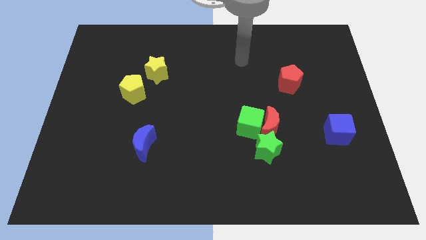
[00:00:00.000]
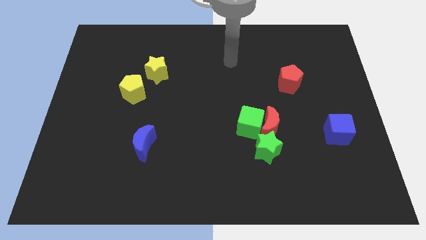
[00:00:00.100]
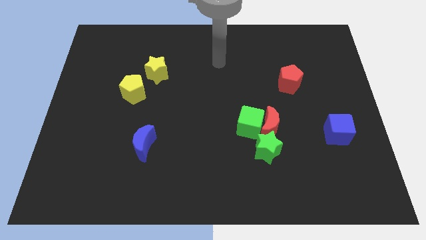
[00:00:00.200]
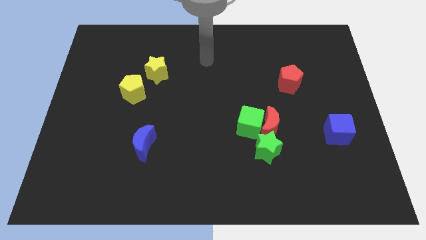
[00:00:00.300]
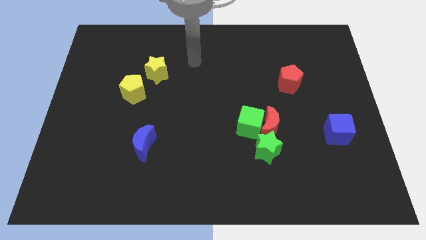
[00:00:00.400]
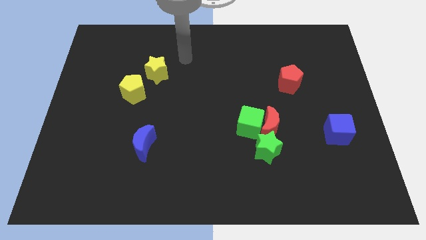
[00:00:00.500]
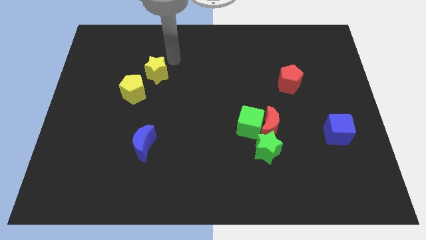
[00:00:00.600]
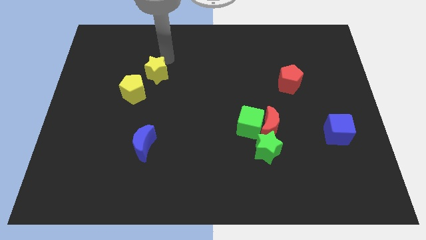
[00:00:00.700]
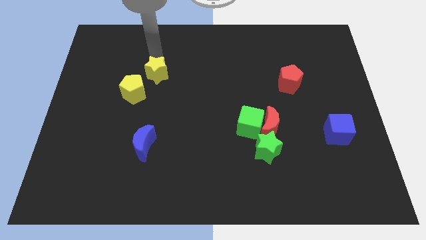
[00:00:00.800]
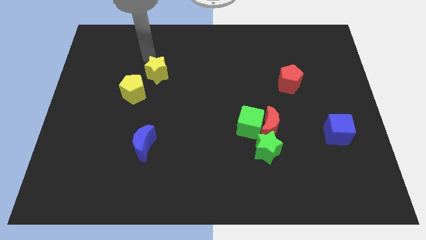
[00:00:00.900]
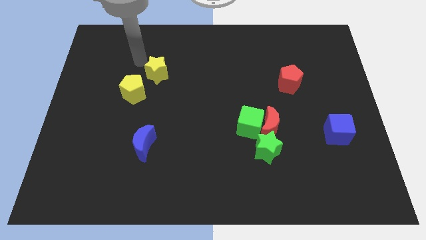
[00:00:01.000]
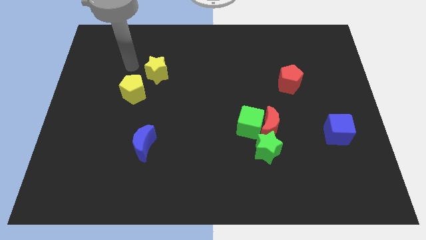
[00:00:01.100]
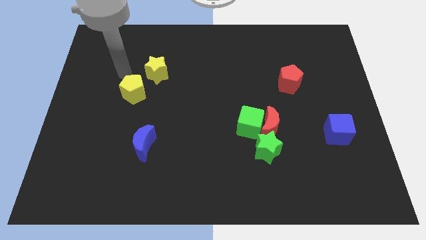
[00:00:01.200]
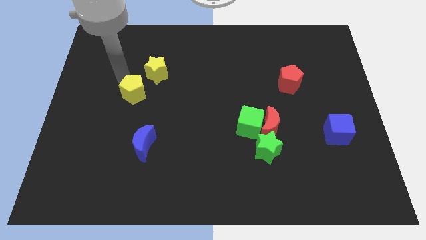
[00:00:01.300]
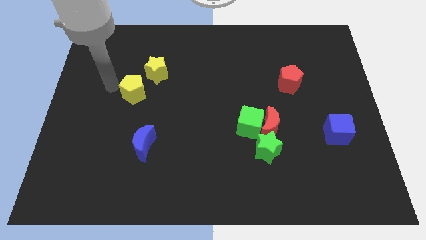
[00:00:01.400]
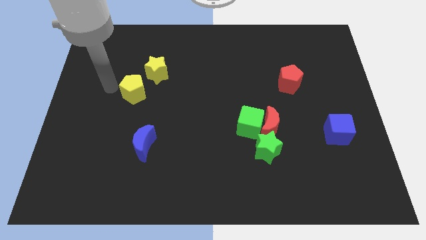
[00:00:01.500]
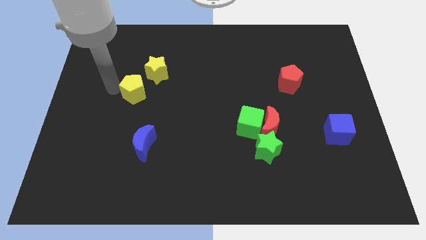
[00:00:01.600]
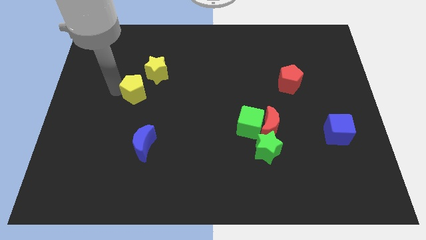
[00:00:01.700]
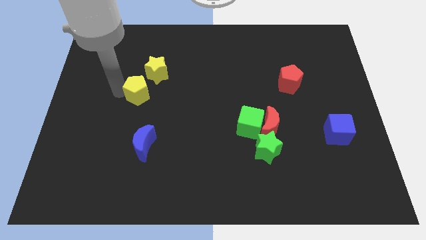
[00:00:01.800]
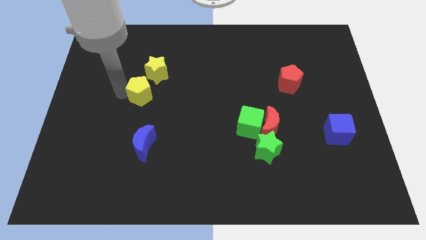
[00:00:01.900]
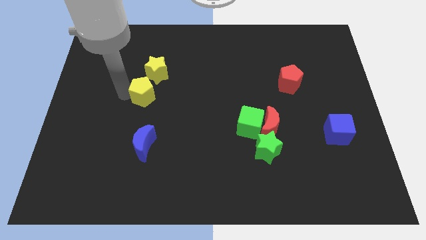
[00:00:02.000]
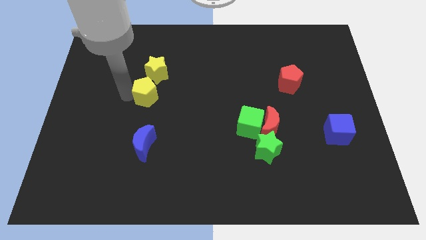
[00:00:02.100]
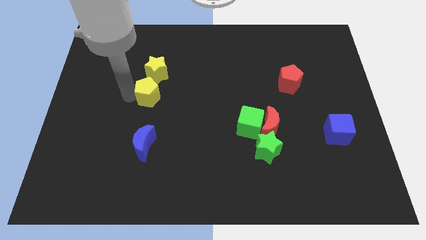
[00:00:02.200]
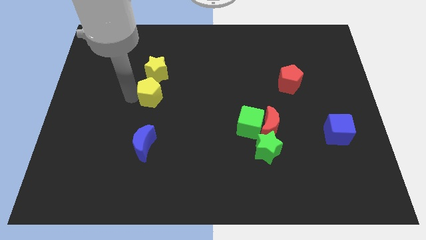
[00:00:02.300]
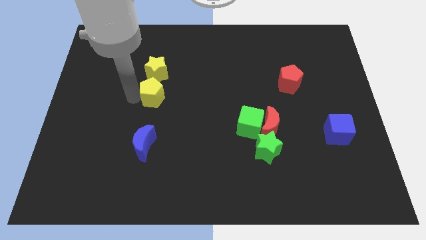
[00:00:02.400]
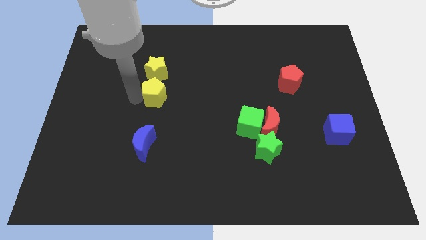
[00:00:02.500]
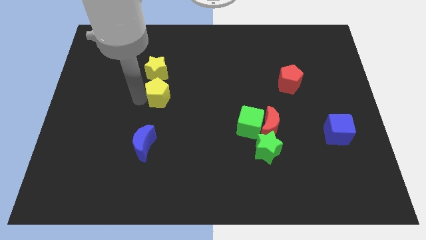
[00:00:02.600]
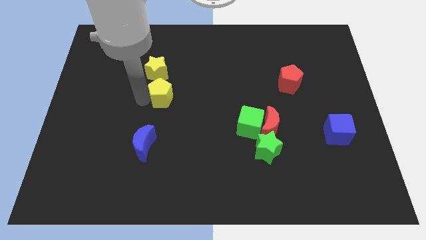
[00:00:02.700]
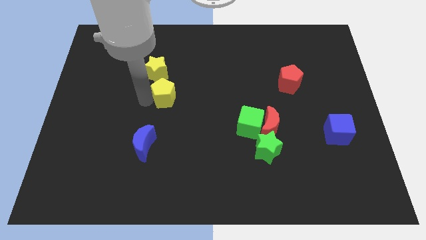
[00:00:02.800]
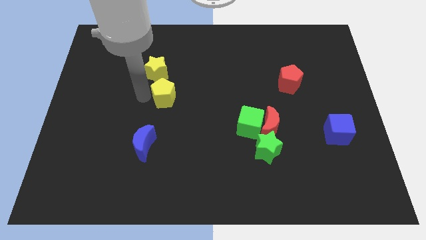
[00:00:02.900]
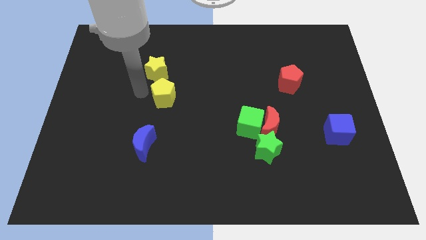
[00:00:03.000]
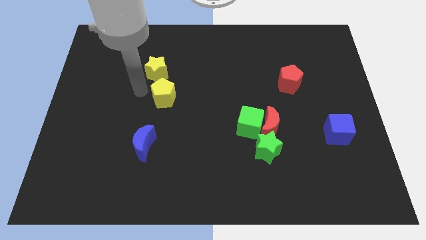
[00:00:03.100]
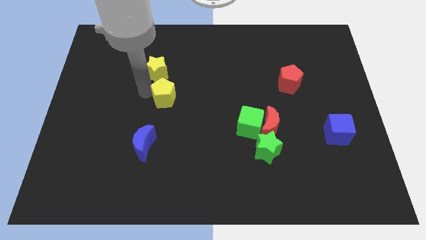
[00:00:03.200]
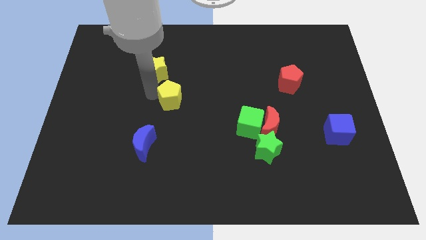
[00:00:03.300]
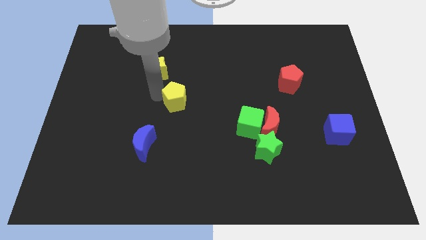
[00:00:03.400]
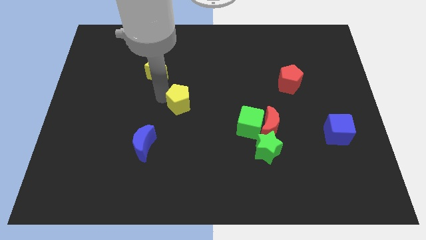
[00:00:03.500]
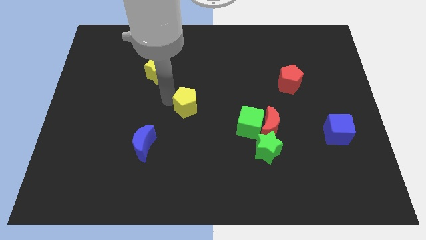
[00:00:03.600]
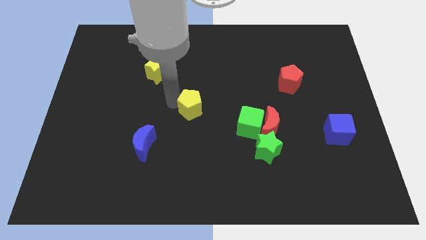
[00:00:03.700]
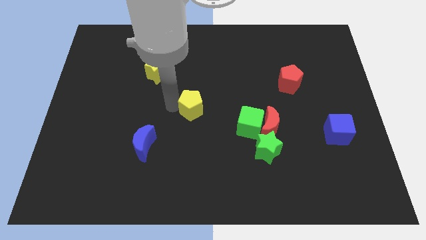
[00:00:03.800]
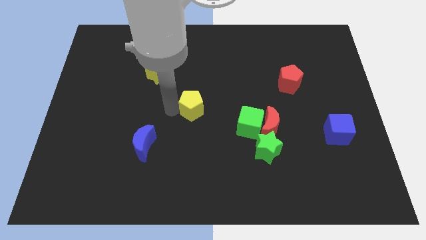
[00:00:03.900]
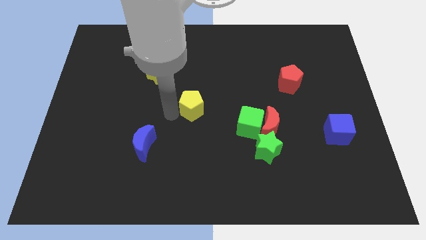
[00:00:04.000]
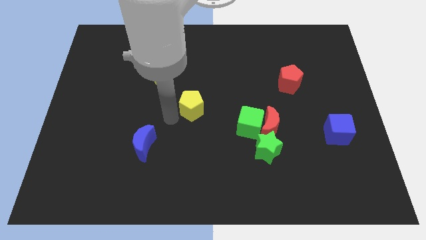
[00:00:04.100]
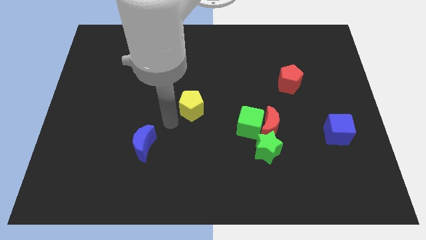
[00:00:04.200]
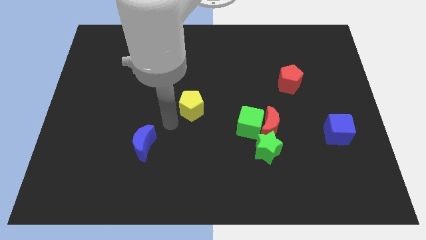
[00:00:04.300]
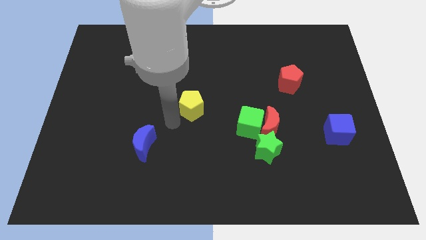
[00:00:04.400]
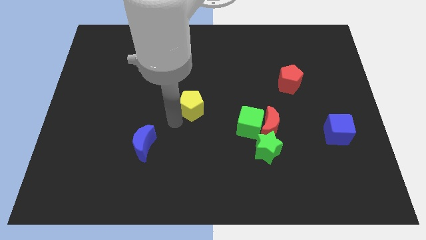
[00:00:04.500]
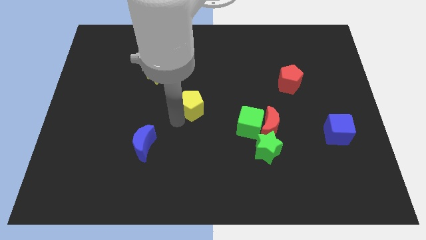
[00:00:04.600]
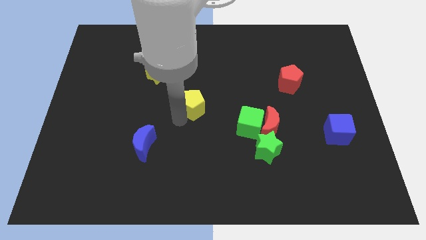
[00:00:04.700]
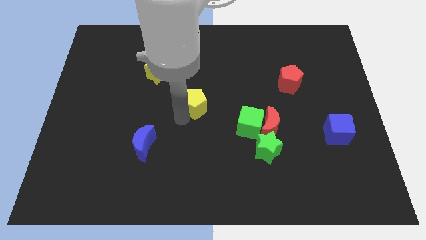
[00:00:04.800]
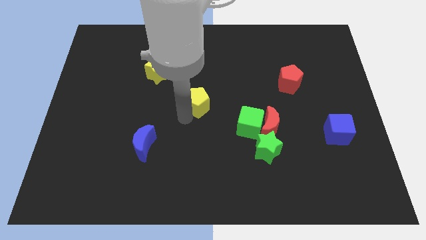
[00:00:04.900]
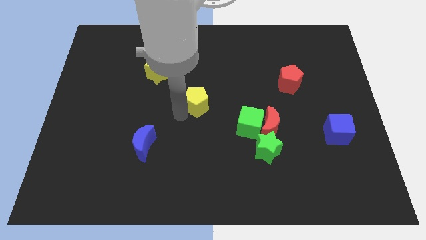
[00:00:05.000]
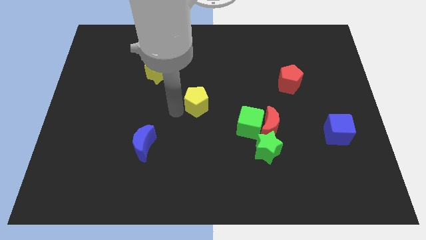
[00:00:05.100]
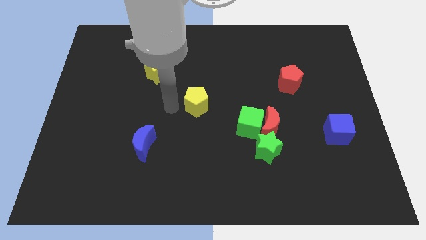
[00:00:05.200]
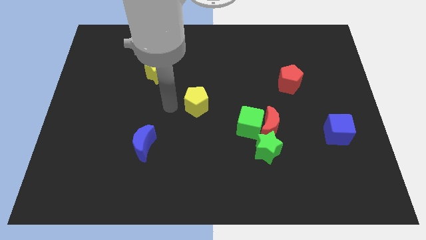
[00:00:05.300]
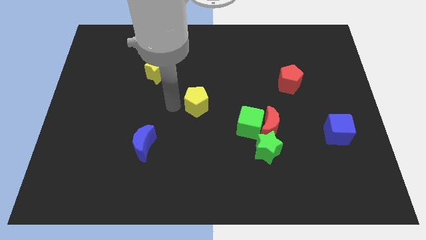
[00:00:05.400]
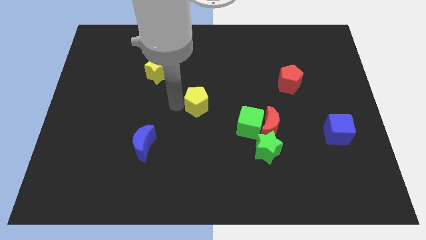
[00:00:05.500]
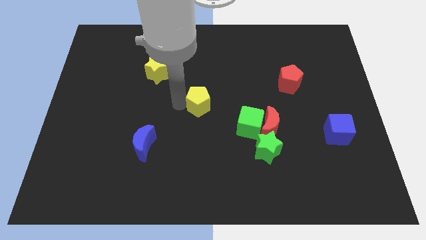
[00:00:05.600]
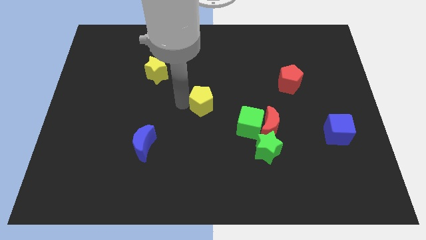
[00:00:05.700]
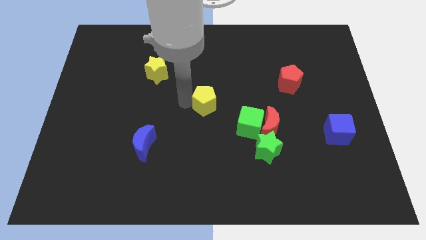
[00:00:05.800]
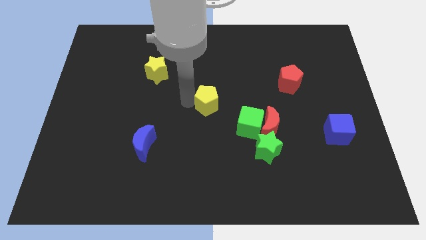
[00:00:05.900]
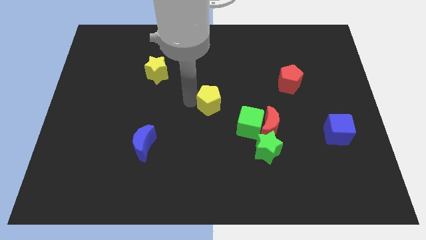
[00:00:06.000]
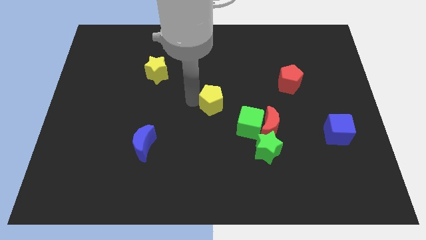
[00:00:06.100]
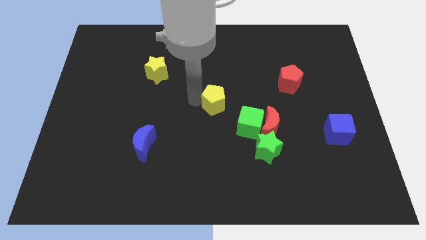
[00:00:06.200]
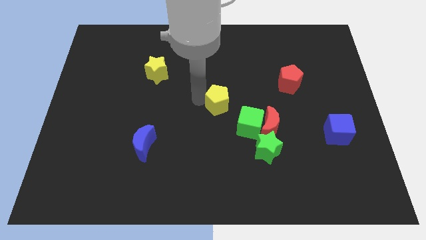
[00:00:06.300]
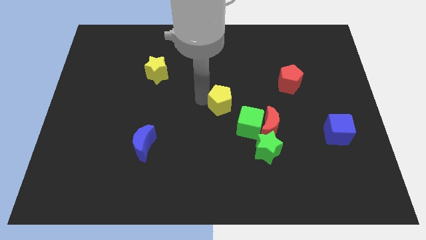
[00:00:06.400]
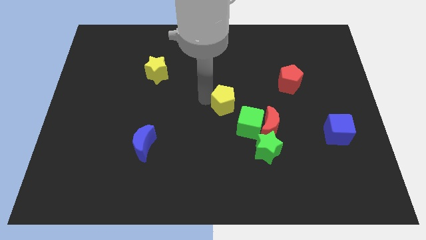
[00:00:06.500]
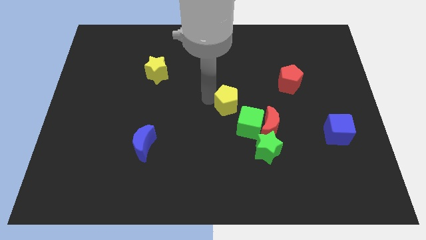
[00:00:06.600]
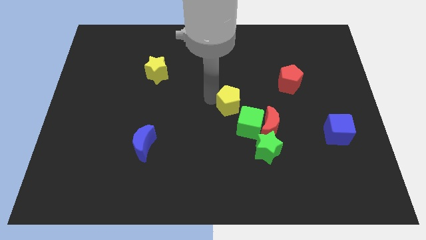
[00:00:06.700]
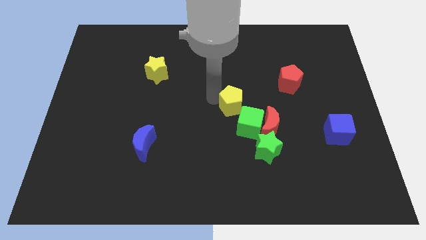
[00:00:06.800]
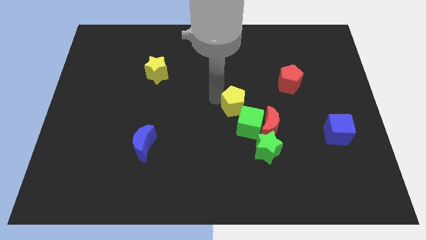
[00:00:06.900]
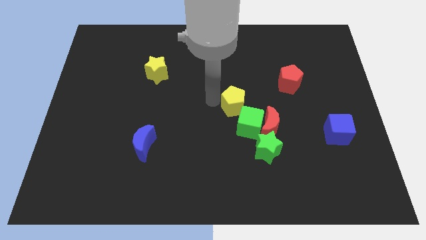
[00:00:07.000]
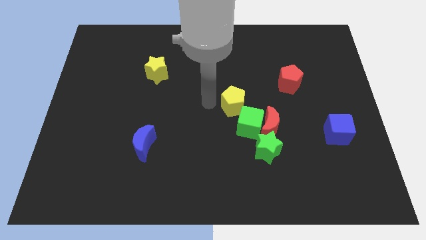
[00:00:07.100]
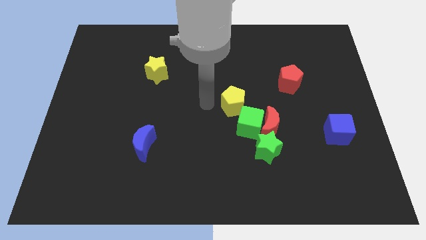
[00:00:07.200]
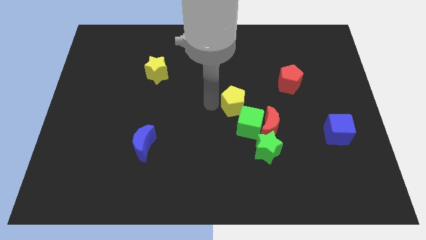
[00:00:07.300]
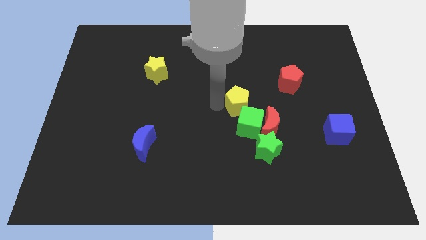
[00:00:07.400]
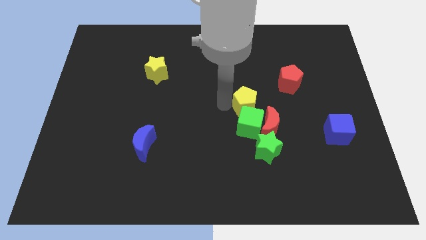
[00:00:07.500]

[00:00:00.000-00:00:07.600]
move the yellow pentagon diagonally up and to the right of the green cube
